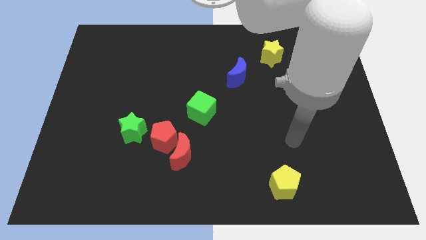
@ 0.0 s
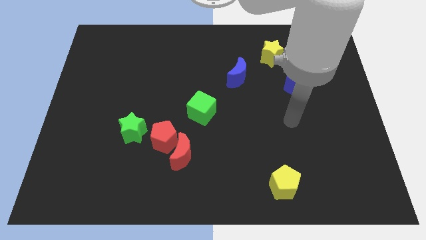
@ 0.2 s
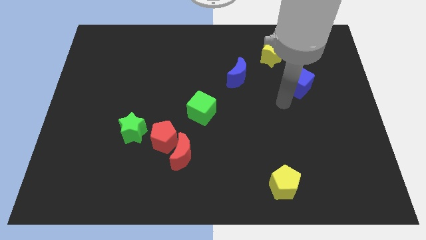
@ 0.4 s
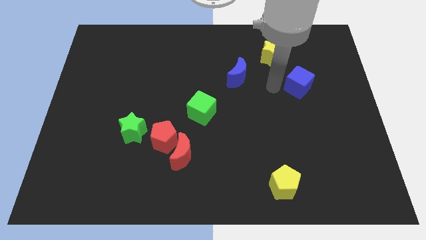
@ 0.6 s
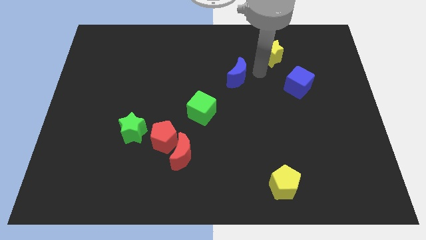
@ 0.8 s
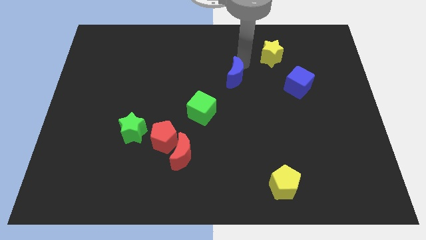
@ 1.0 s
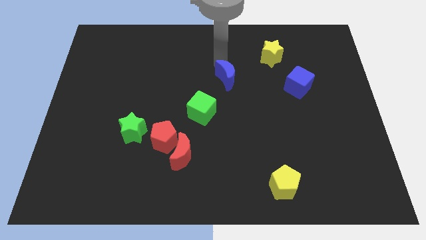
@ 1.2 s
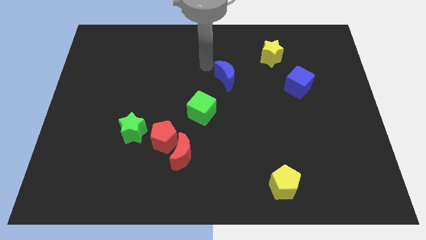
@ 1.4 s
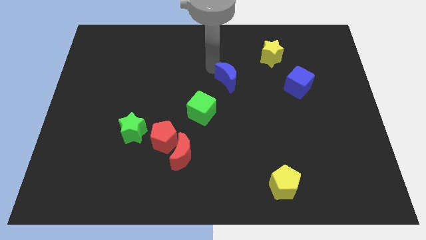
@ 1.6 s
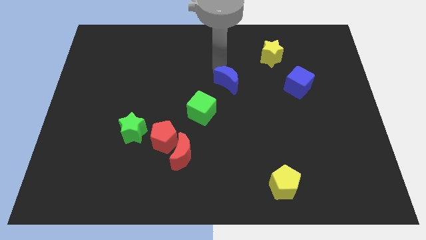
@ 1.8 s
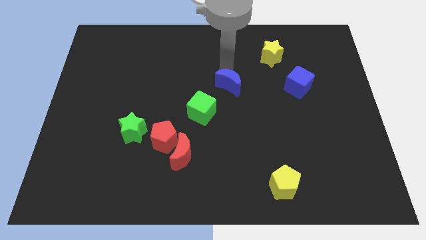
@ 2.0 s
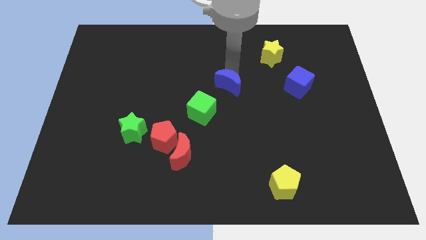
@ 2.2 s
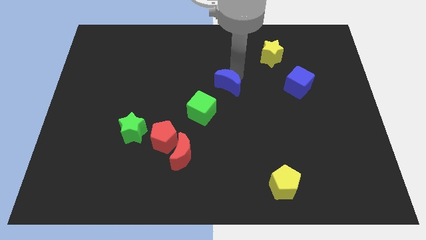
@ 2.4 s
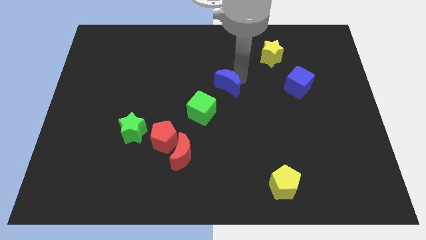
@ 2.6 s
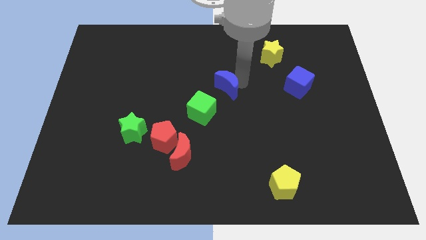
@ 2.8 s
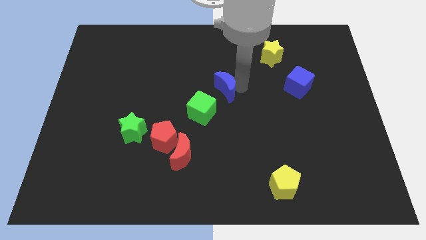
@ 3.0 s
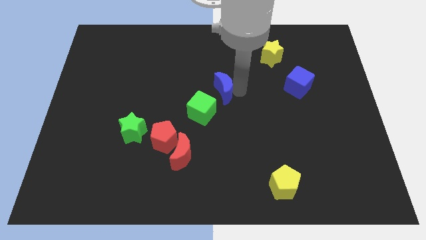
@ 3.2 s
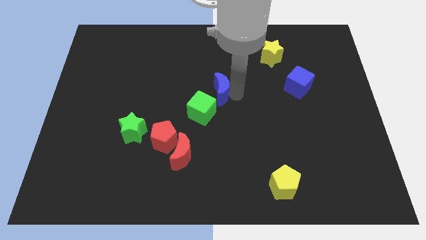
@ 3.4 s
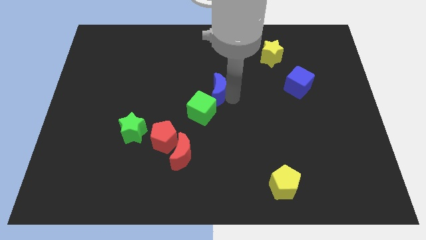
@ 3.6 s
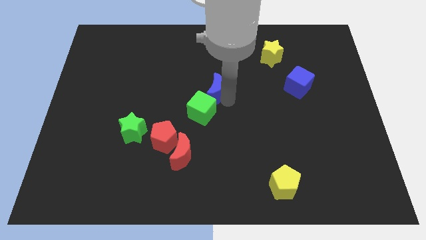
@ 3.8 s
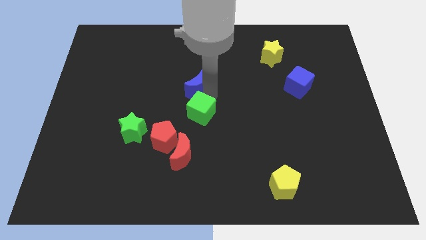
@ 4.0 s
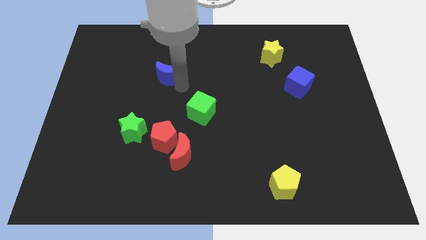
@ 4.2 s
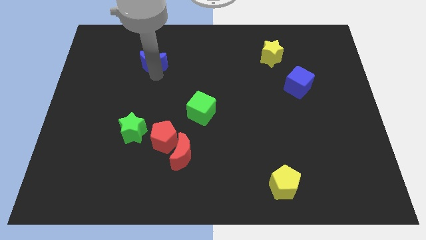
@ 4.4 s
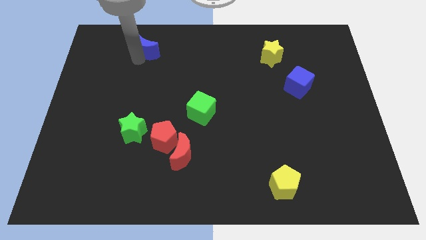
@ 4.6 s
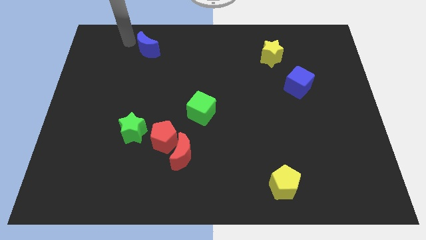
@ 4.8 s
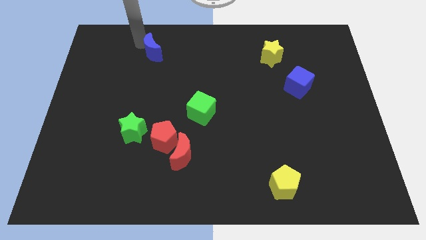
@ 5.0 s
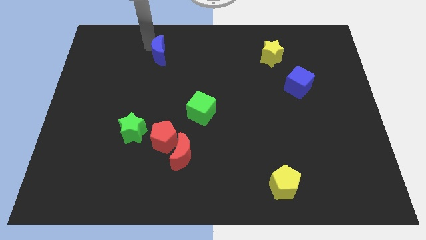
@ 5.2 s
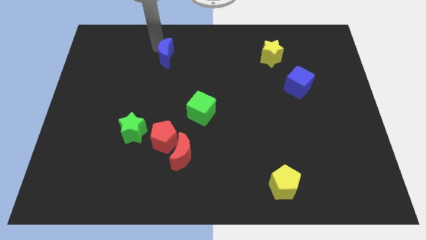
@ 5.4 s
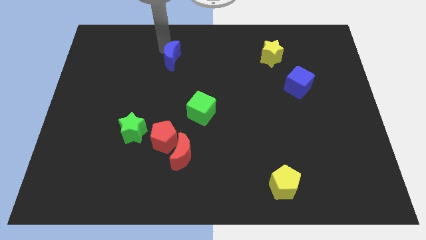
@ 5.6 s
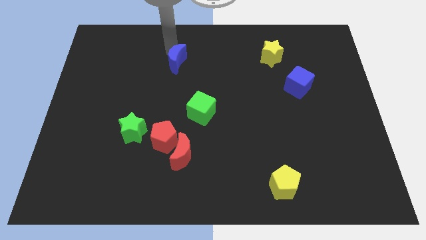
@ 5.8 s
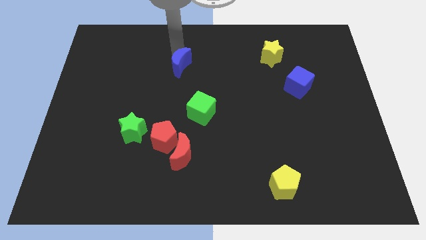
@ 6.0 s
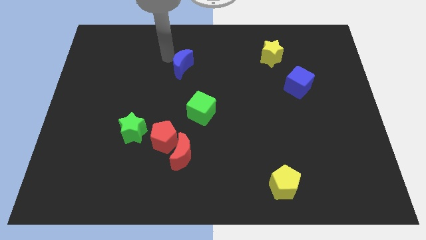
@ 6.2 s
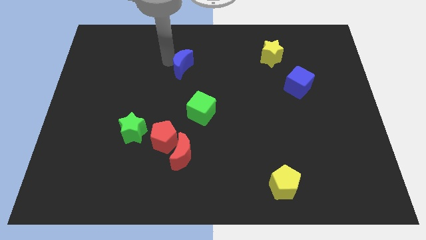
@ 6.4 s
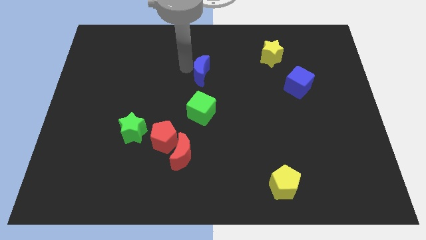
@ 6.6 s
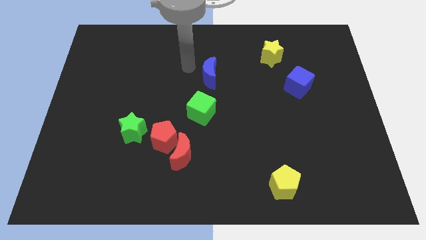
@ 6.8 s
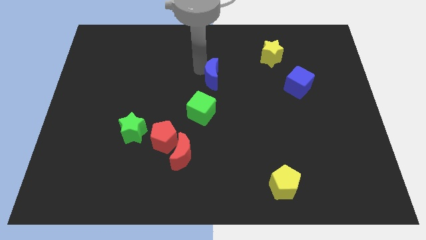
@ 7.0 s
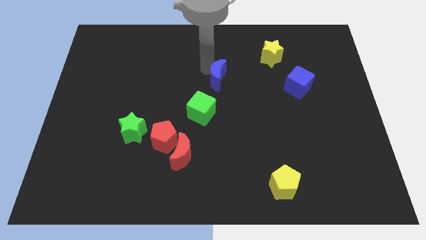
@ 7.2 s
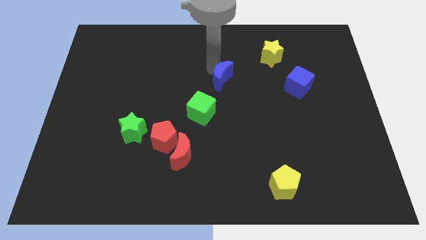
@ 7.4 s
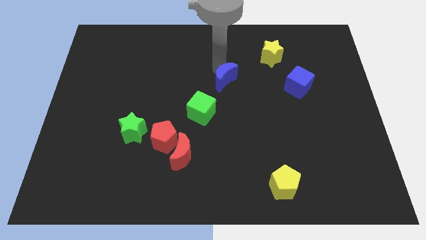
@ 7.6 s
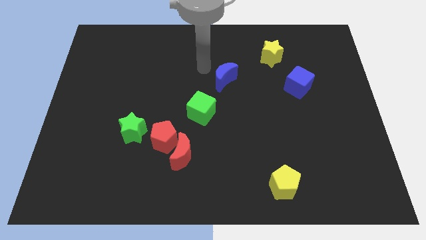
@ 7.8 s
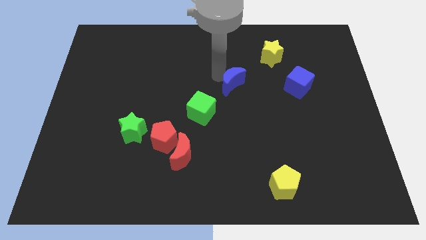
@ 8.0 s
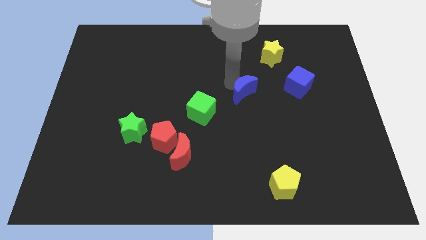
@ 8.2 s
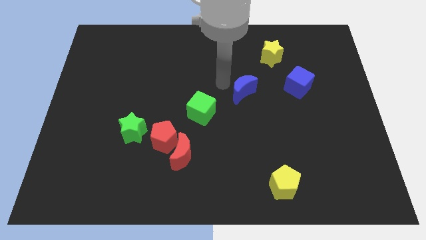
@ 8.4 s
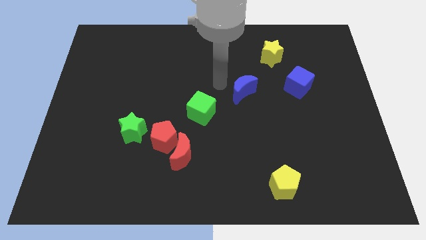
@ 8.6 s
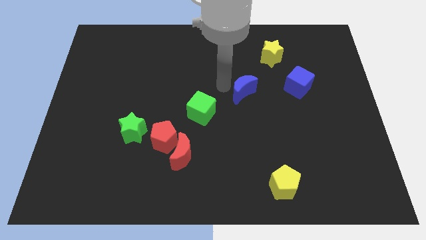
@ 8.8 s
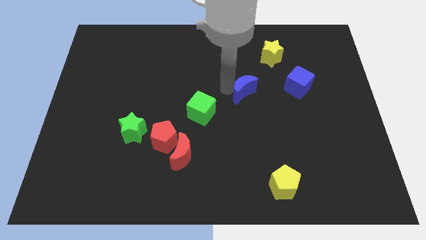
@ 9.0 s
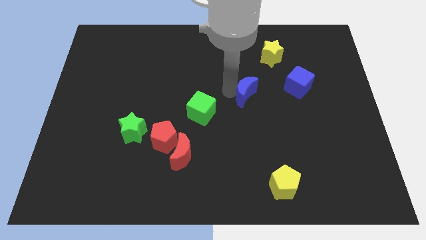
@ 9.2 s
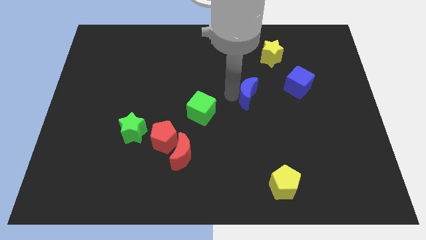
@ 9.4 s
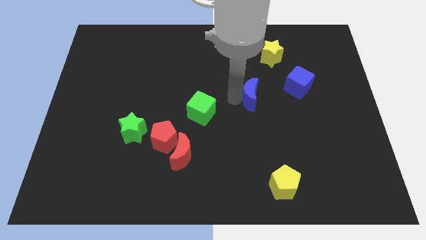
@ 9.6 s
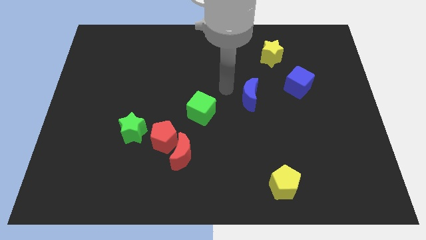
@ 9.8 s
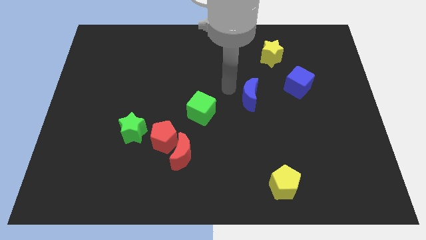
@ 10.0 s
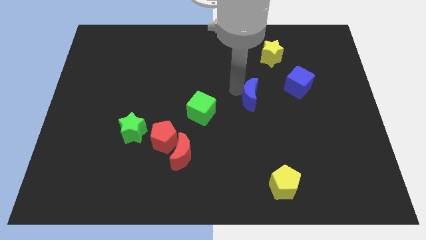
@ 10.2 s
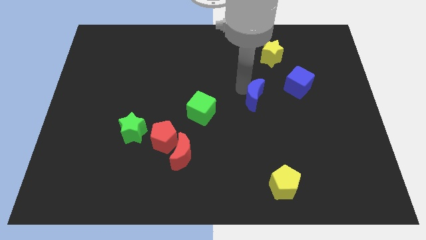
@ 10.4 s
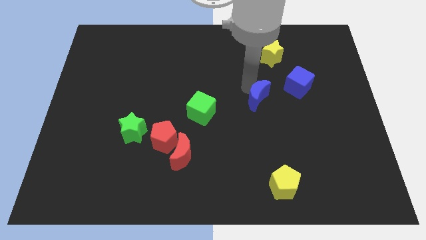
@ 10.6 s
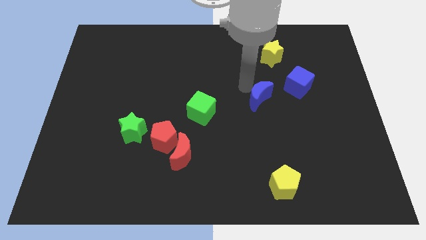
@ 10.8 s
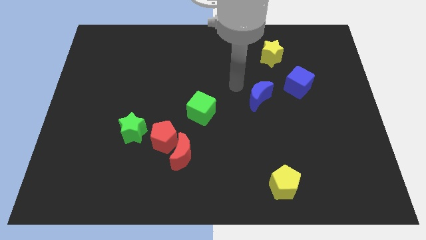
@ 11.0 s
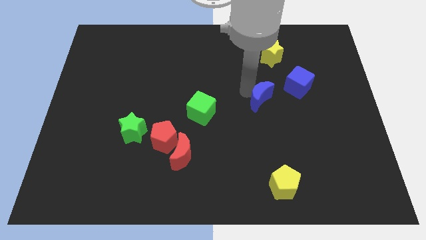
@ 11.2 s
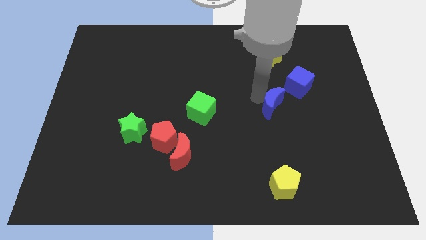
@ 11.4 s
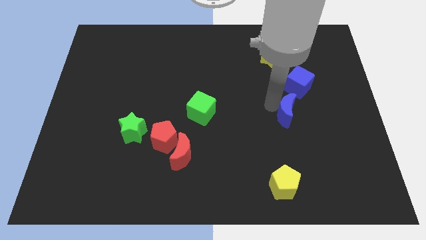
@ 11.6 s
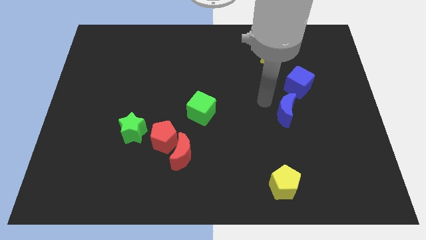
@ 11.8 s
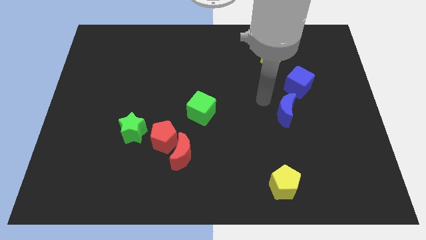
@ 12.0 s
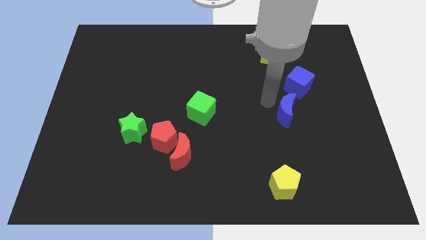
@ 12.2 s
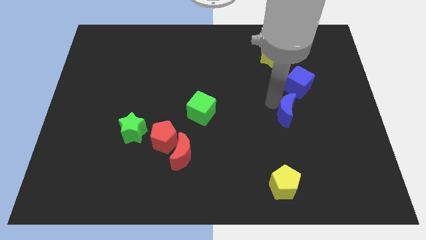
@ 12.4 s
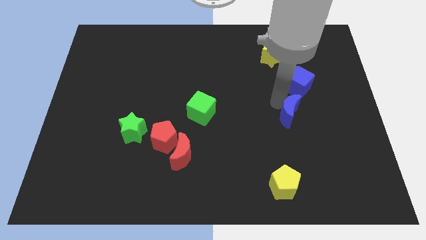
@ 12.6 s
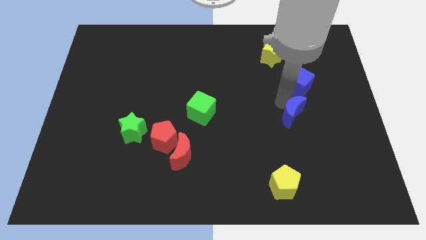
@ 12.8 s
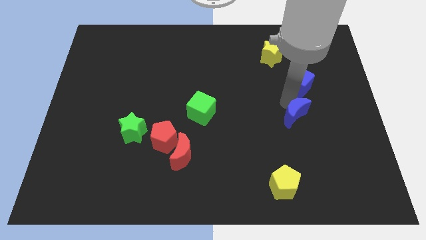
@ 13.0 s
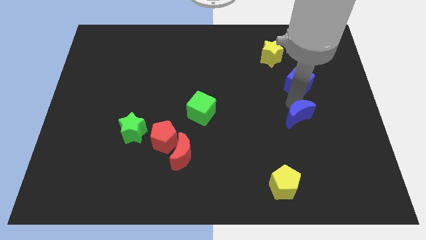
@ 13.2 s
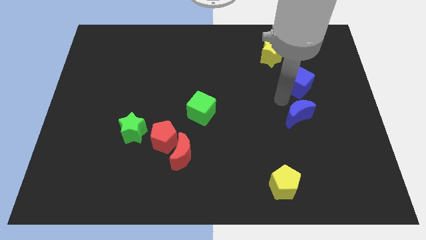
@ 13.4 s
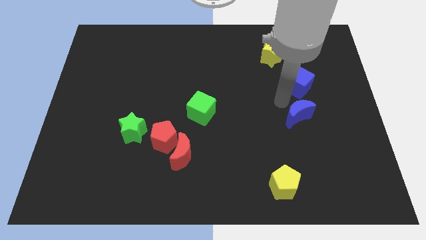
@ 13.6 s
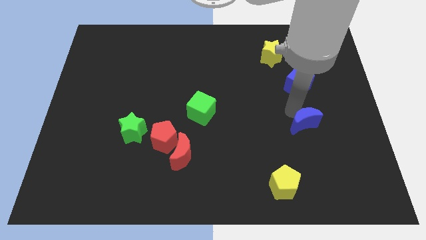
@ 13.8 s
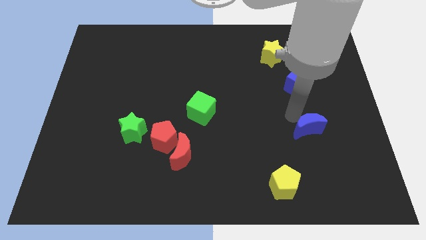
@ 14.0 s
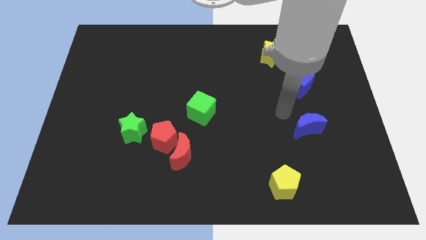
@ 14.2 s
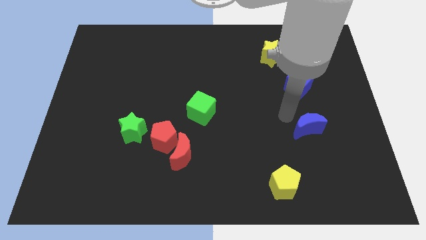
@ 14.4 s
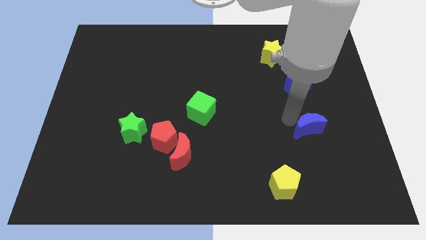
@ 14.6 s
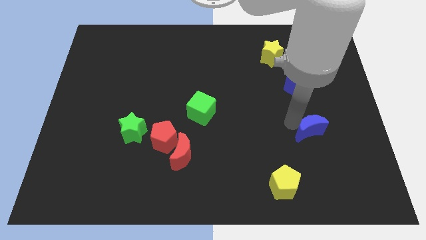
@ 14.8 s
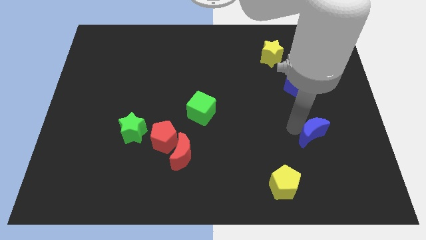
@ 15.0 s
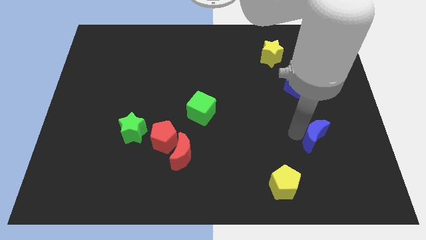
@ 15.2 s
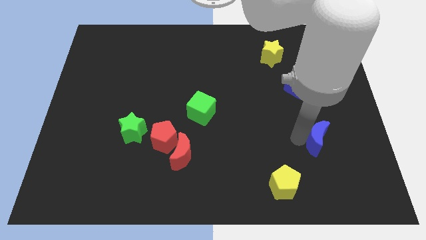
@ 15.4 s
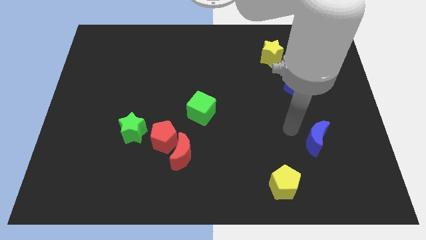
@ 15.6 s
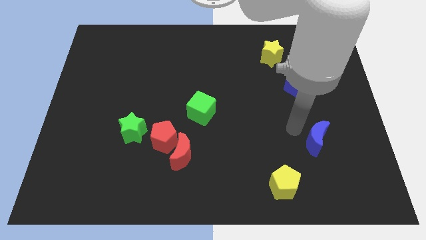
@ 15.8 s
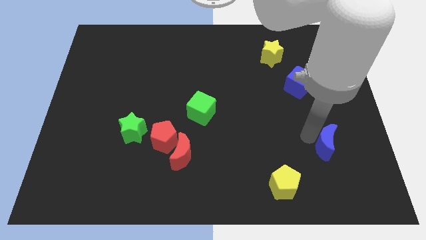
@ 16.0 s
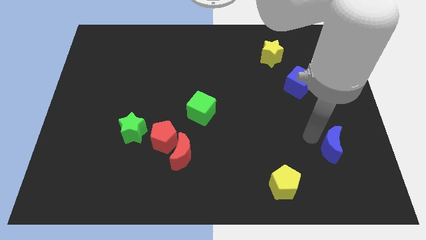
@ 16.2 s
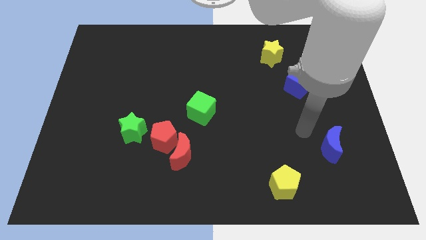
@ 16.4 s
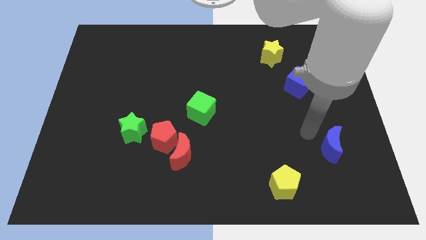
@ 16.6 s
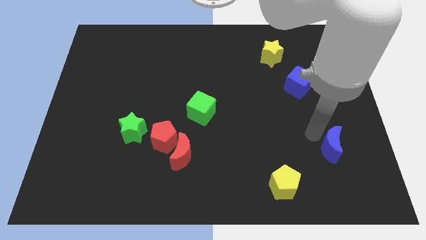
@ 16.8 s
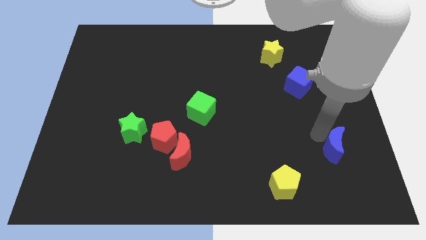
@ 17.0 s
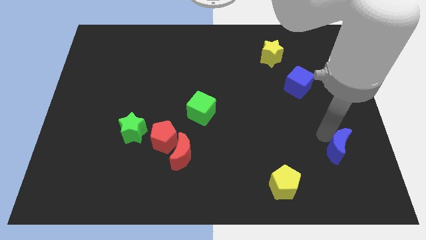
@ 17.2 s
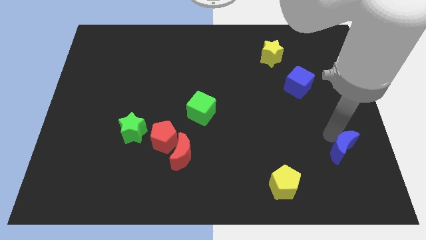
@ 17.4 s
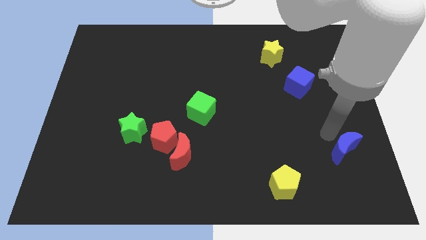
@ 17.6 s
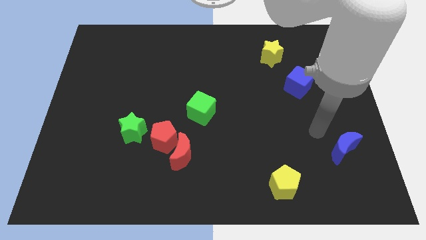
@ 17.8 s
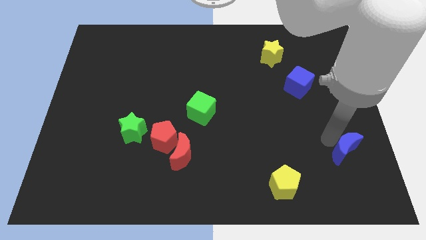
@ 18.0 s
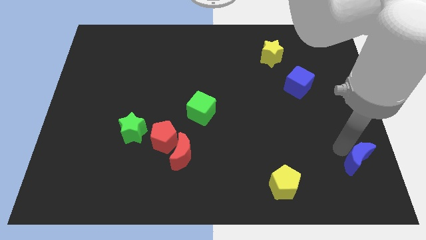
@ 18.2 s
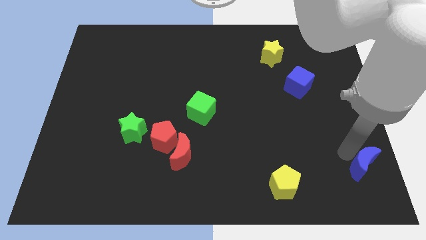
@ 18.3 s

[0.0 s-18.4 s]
slide the blue moon to the bottom right of the board
